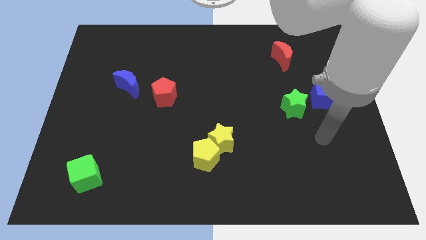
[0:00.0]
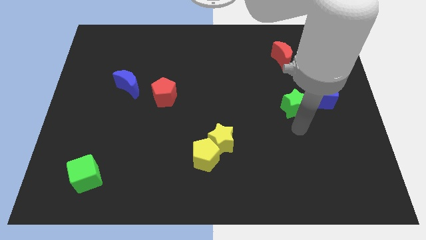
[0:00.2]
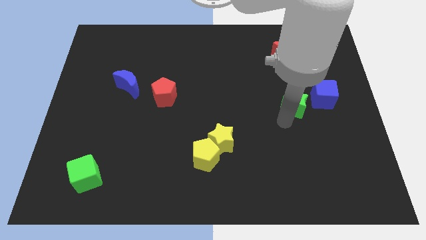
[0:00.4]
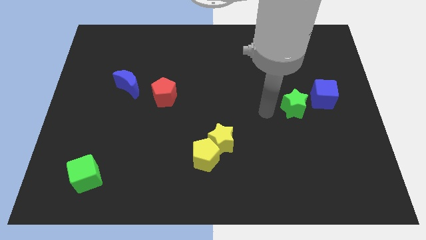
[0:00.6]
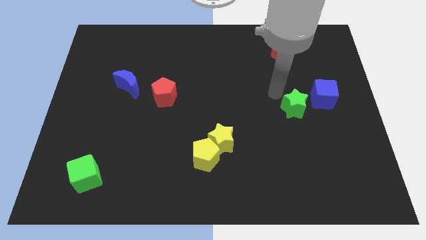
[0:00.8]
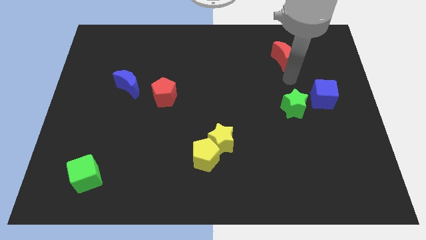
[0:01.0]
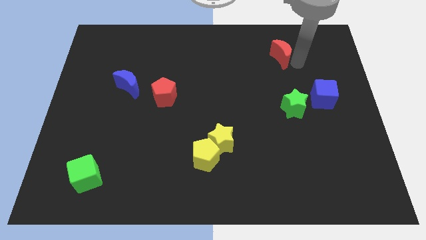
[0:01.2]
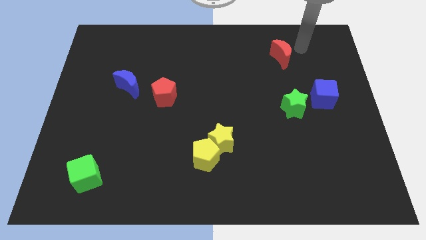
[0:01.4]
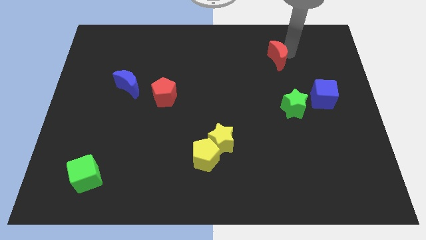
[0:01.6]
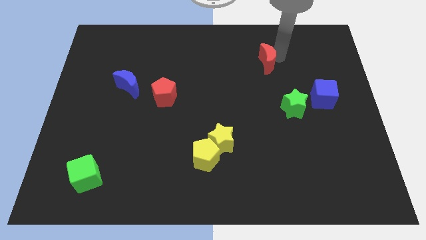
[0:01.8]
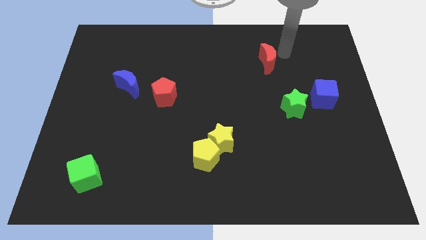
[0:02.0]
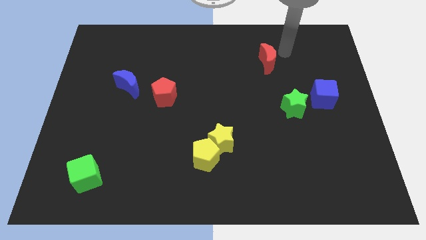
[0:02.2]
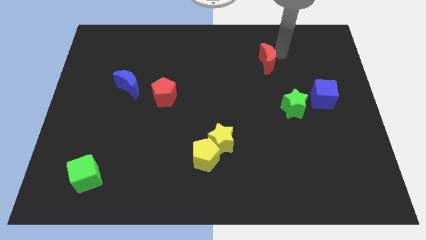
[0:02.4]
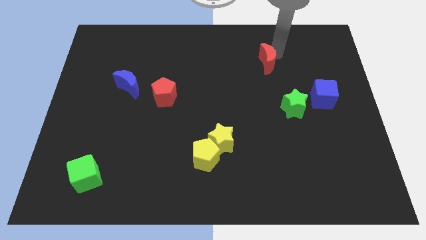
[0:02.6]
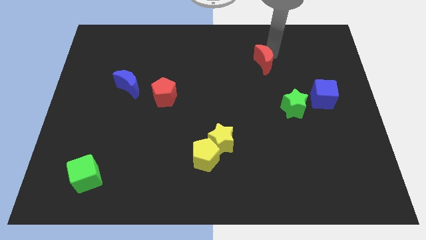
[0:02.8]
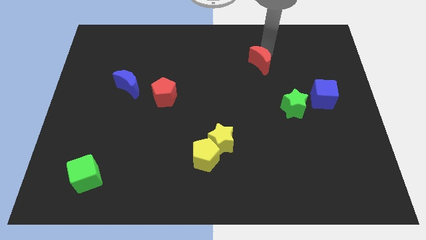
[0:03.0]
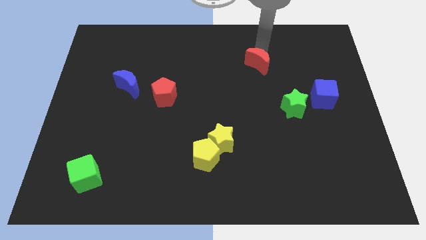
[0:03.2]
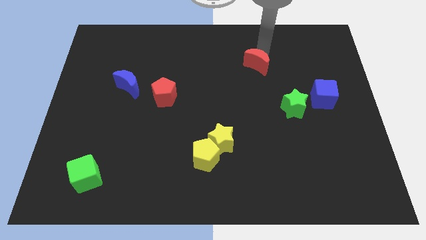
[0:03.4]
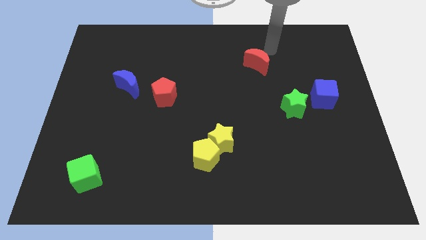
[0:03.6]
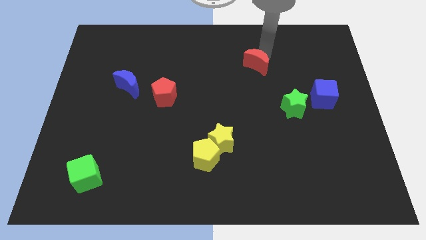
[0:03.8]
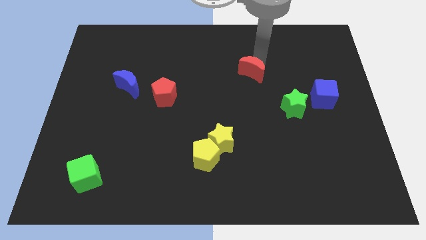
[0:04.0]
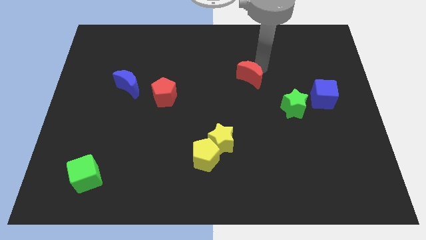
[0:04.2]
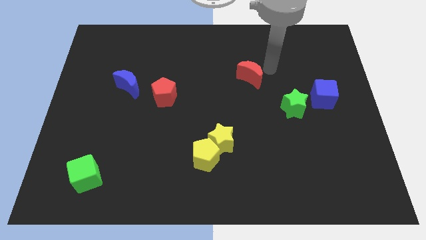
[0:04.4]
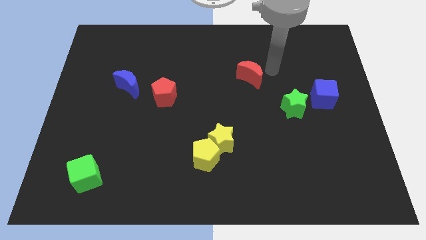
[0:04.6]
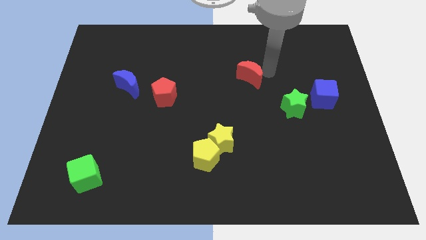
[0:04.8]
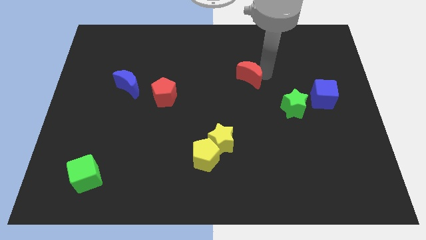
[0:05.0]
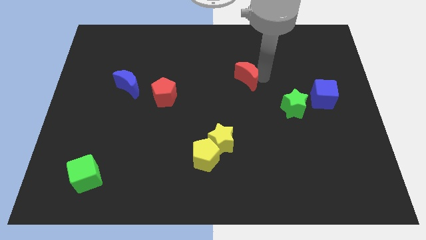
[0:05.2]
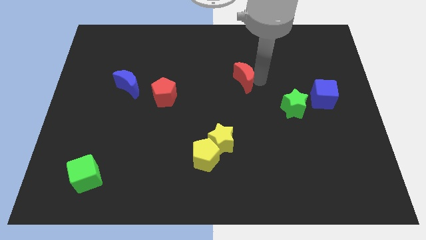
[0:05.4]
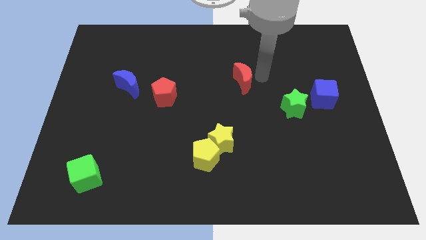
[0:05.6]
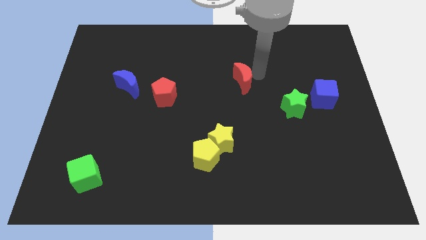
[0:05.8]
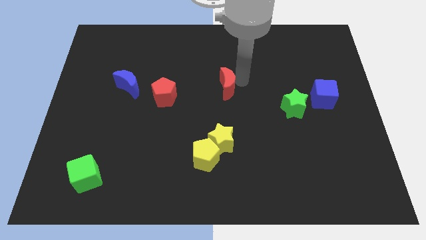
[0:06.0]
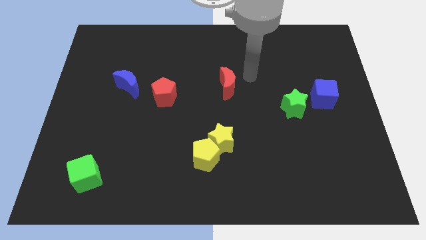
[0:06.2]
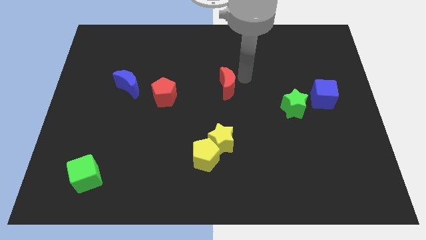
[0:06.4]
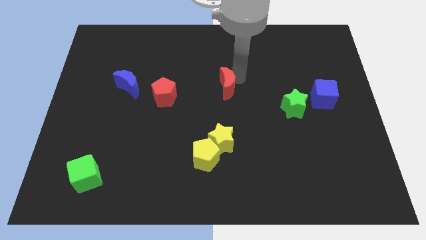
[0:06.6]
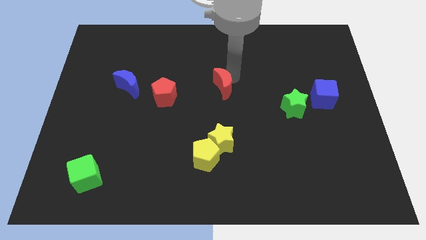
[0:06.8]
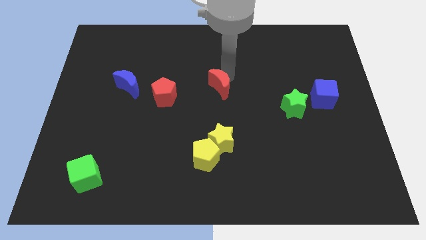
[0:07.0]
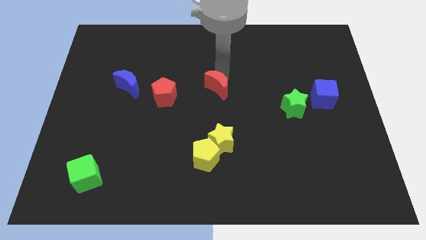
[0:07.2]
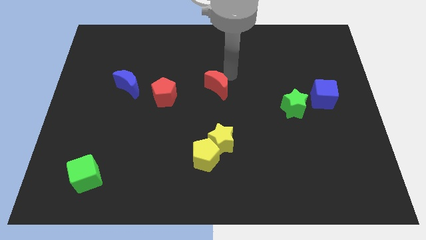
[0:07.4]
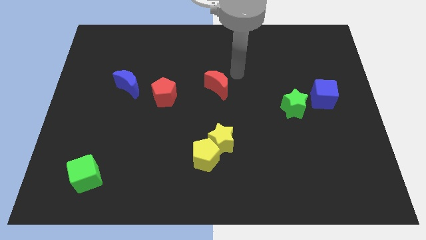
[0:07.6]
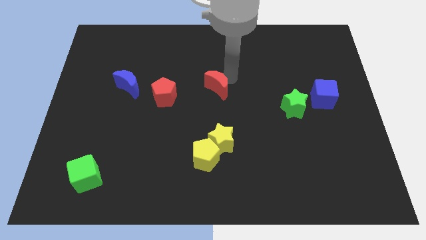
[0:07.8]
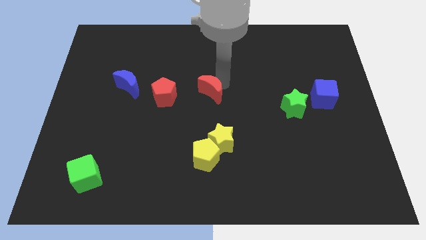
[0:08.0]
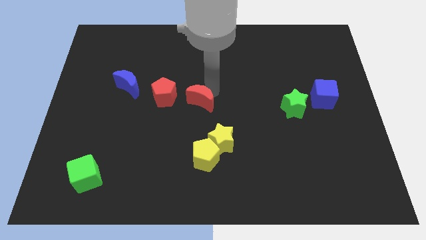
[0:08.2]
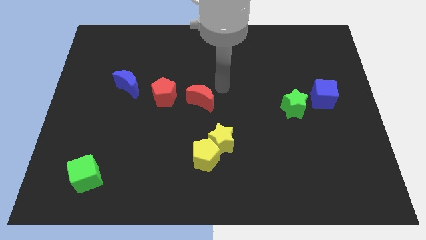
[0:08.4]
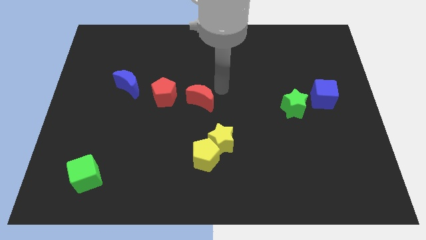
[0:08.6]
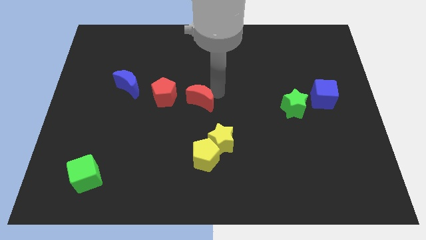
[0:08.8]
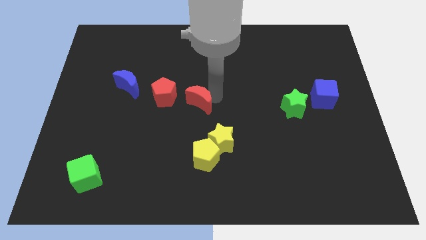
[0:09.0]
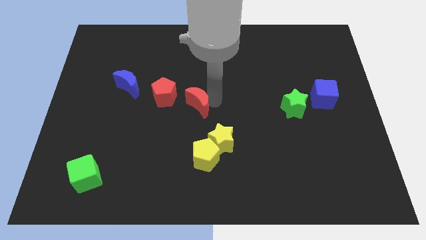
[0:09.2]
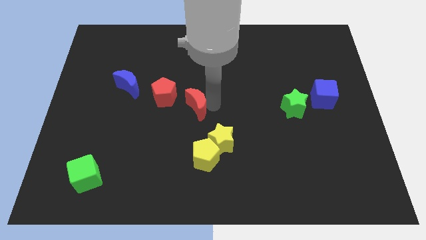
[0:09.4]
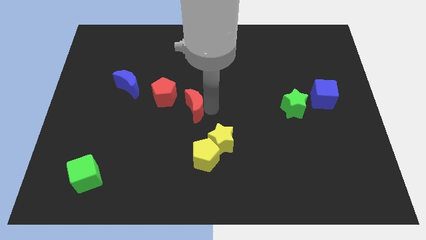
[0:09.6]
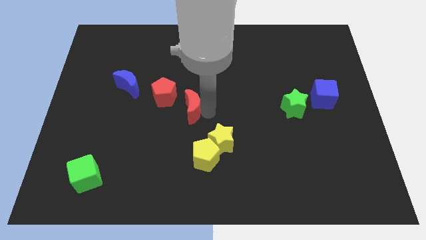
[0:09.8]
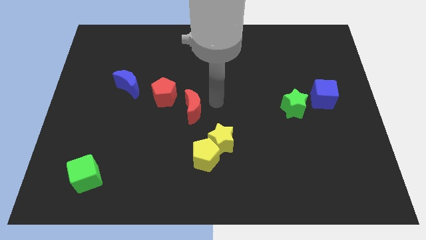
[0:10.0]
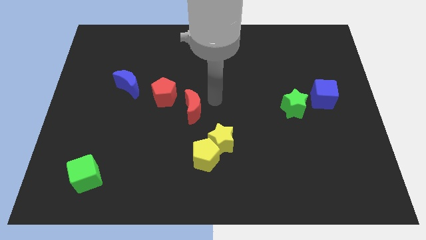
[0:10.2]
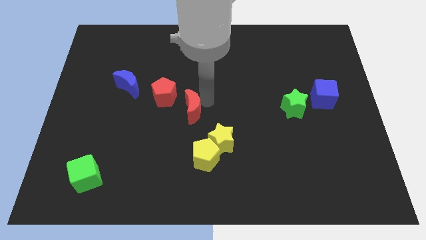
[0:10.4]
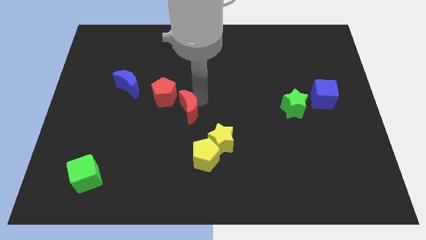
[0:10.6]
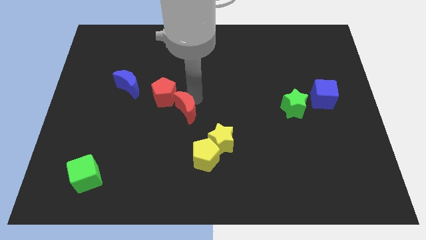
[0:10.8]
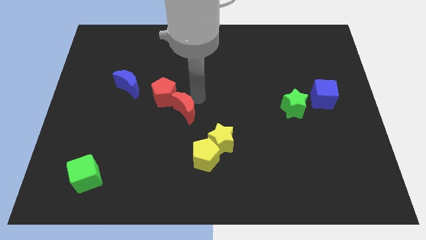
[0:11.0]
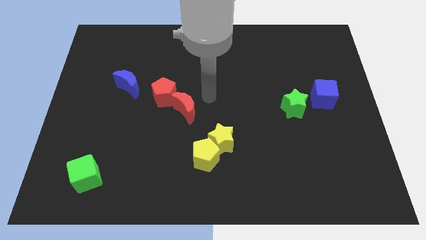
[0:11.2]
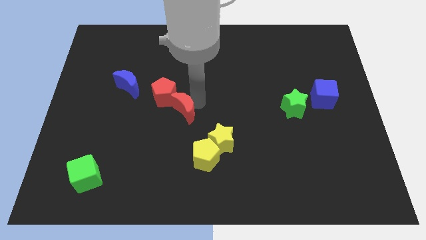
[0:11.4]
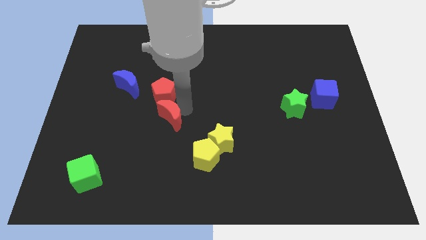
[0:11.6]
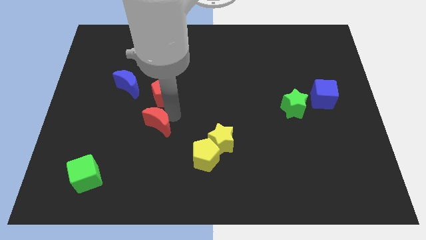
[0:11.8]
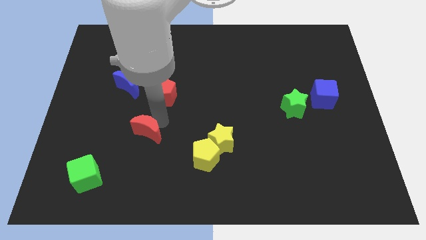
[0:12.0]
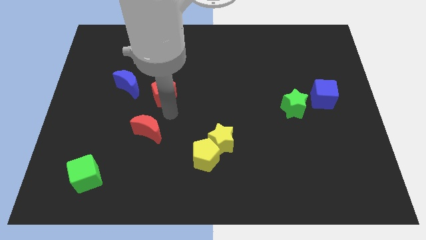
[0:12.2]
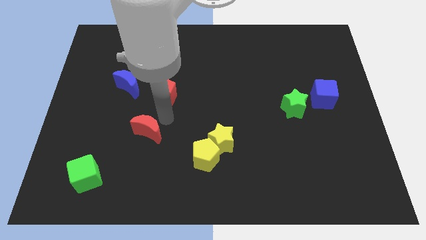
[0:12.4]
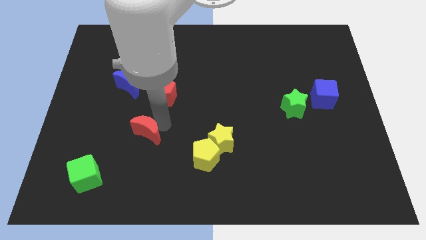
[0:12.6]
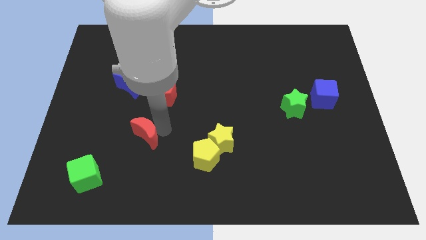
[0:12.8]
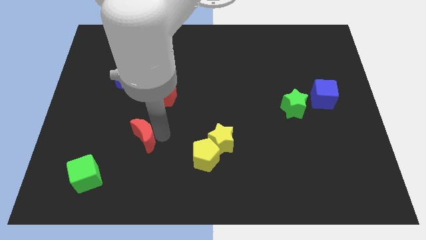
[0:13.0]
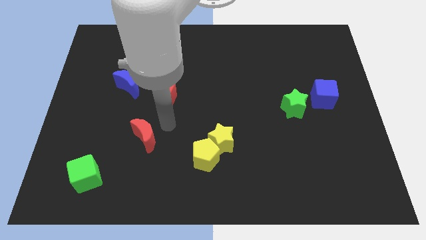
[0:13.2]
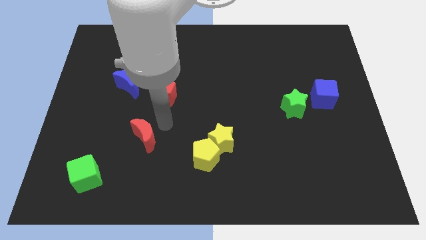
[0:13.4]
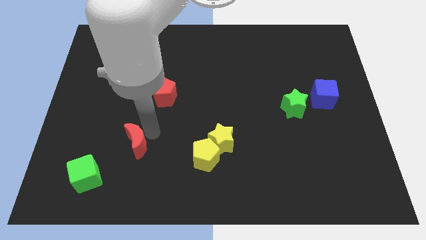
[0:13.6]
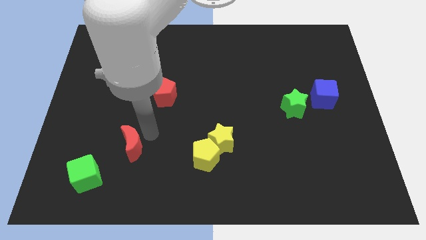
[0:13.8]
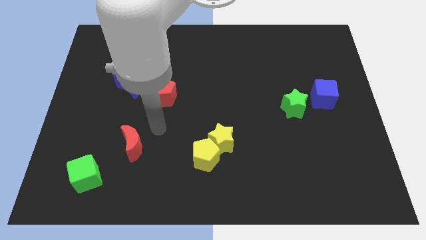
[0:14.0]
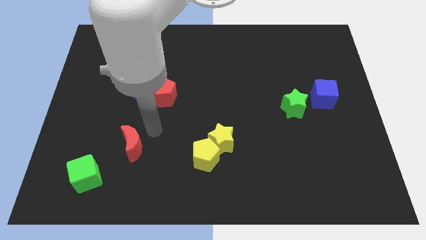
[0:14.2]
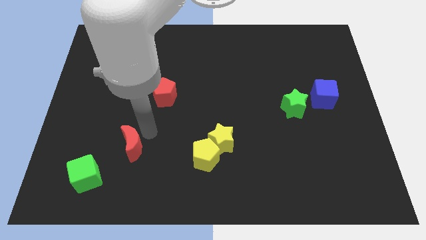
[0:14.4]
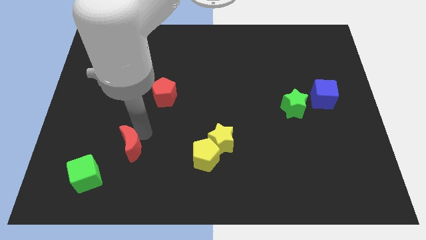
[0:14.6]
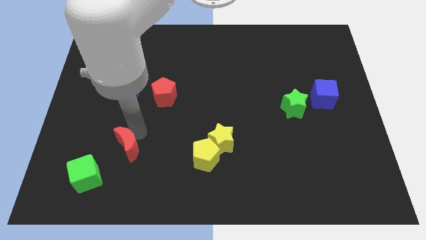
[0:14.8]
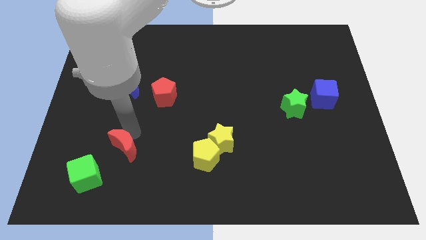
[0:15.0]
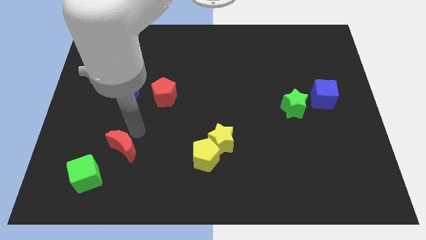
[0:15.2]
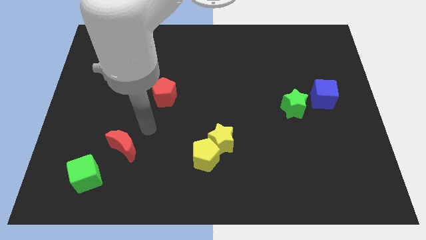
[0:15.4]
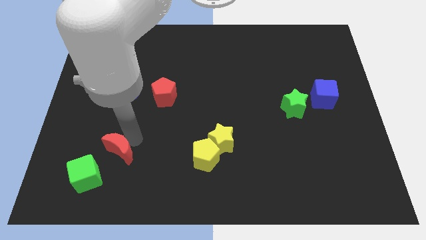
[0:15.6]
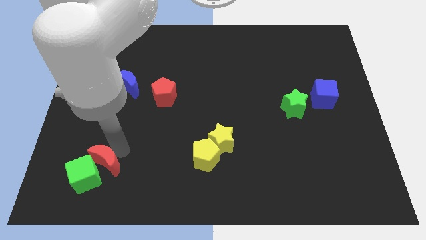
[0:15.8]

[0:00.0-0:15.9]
move the red moon close to the green cube
